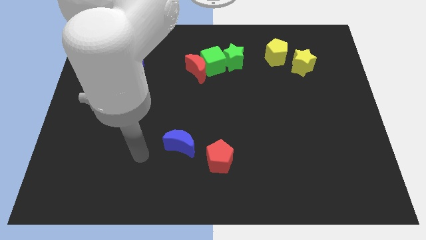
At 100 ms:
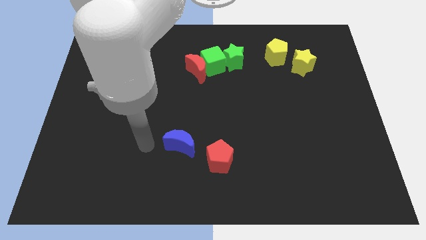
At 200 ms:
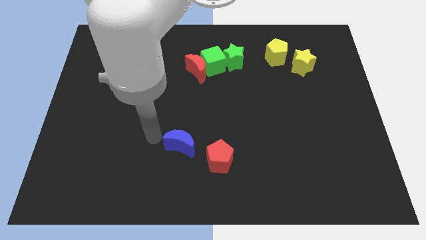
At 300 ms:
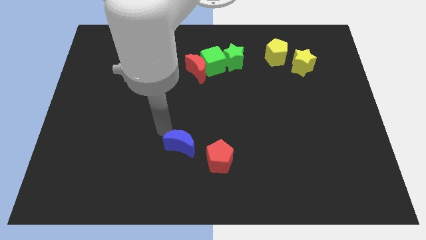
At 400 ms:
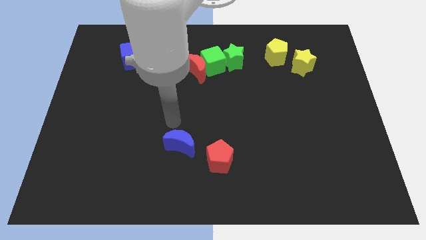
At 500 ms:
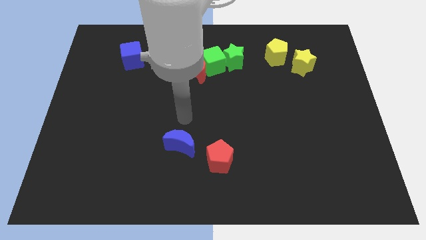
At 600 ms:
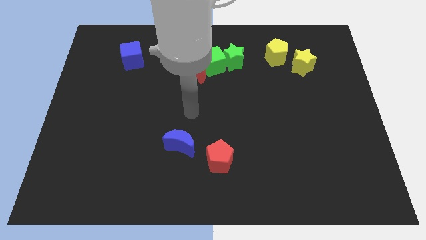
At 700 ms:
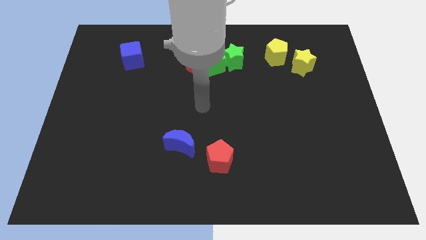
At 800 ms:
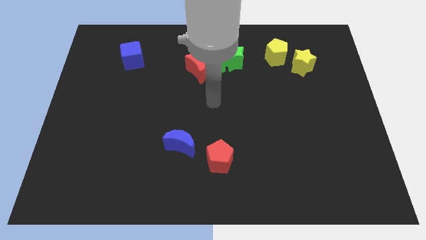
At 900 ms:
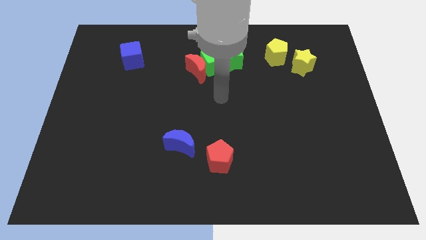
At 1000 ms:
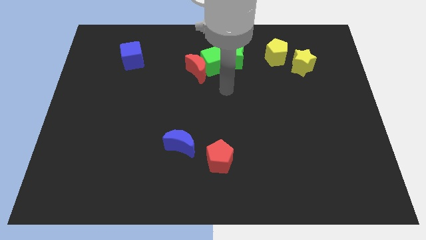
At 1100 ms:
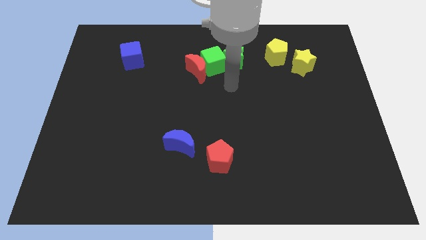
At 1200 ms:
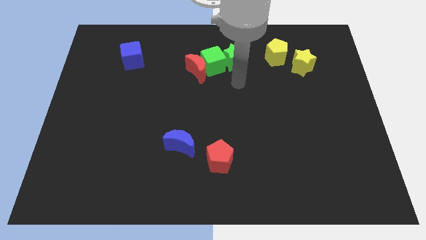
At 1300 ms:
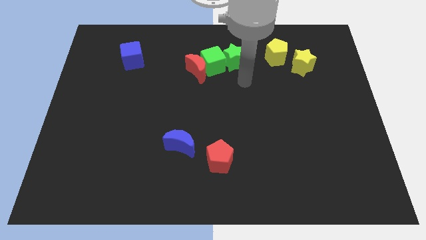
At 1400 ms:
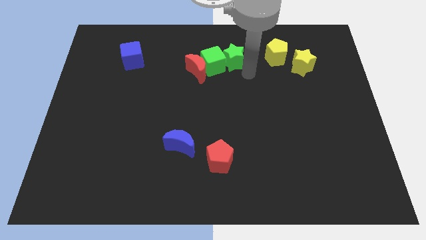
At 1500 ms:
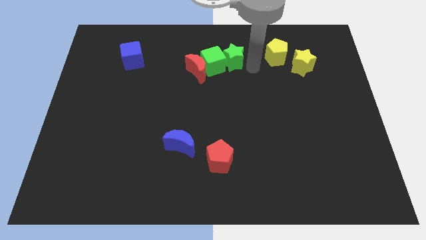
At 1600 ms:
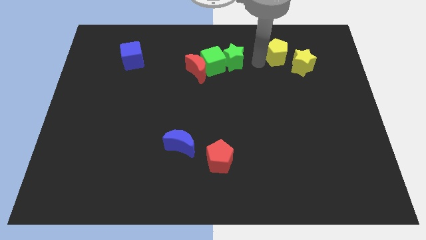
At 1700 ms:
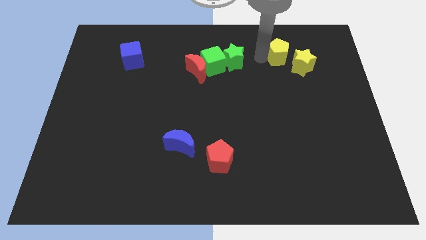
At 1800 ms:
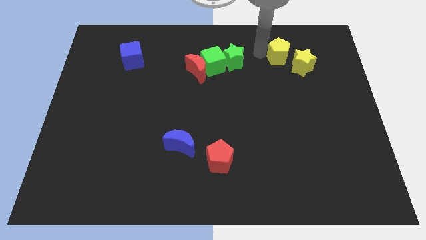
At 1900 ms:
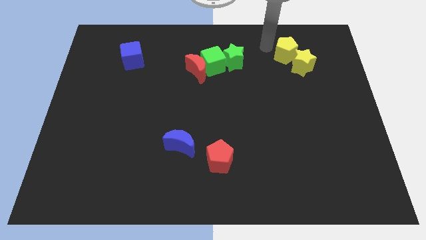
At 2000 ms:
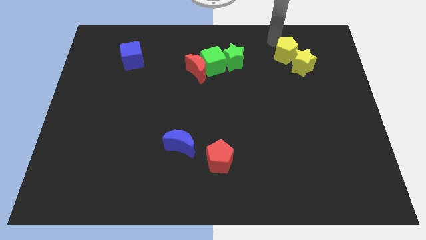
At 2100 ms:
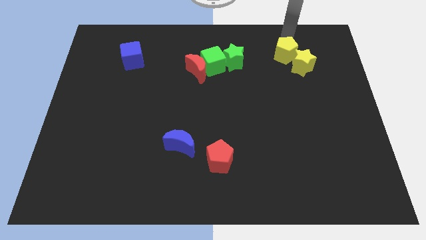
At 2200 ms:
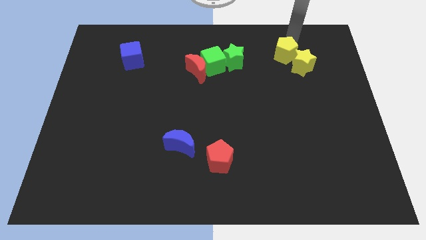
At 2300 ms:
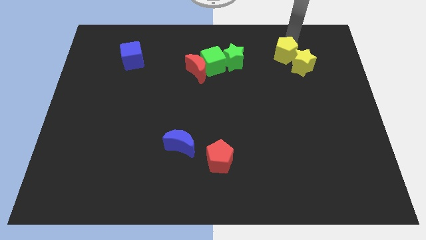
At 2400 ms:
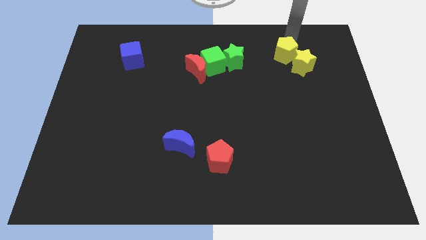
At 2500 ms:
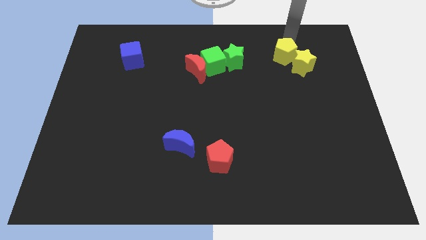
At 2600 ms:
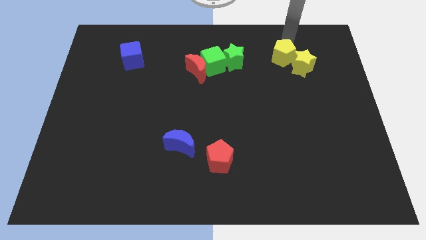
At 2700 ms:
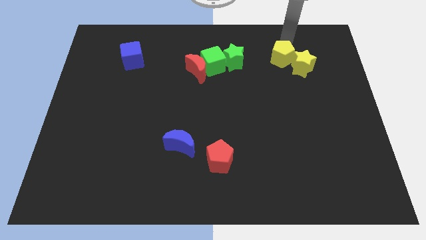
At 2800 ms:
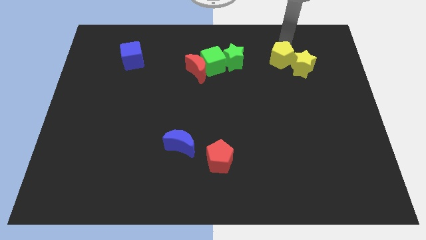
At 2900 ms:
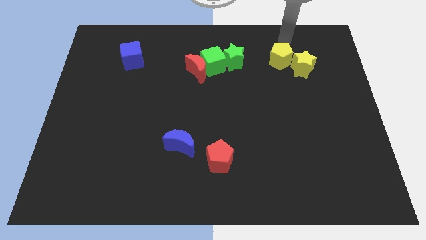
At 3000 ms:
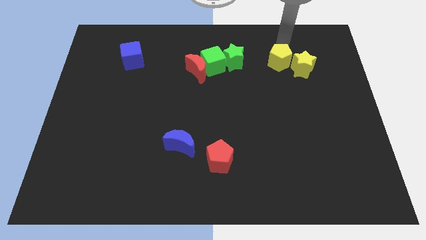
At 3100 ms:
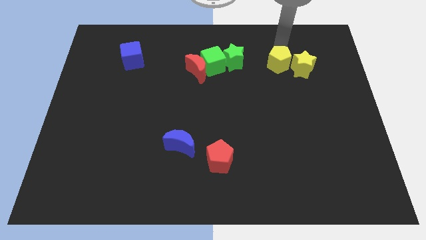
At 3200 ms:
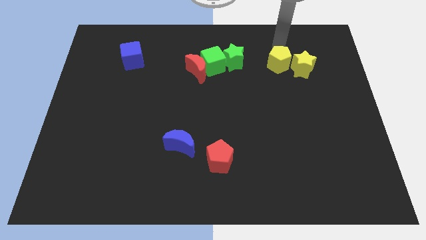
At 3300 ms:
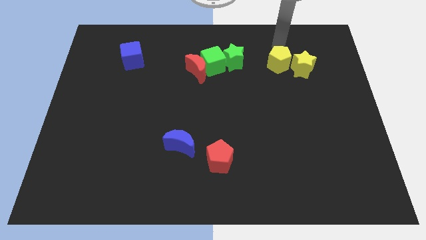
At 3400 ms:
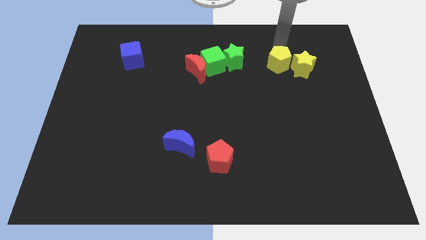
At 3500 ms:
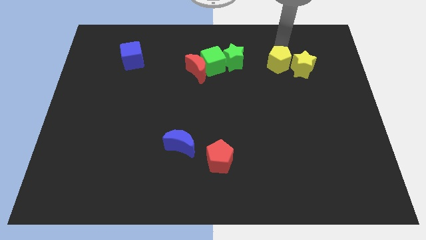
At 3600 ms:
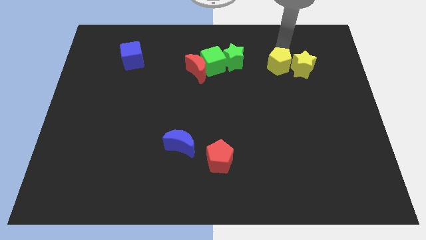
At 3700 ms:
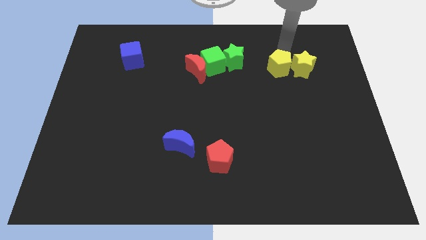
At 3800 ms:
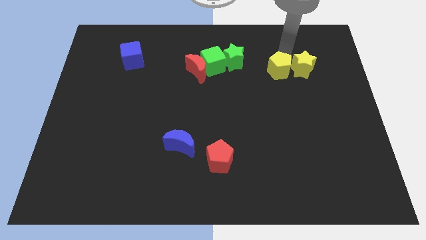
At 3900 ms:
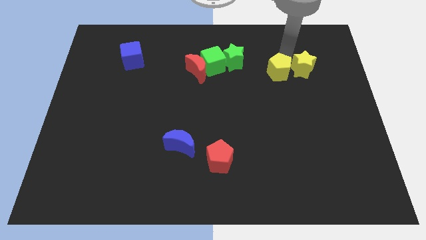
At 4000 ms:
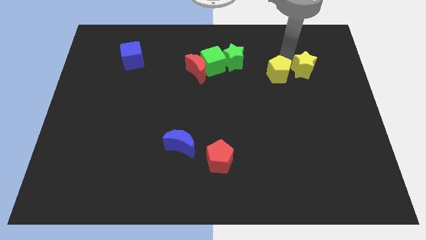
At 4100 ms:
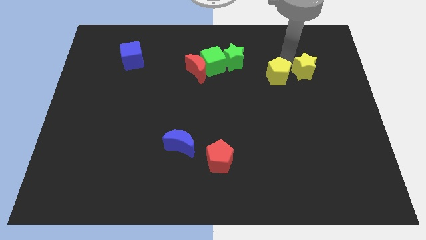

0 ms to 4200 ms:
slide the yellow pentagon downwards slightly

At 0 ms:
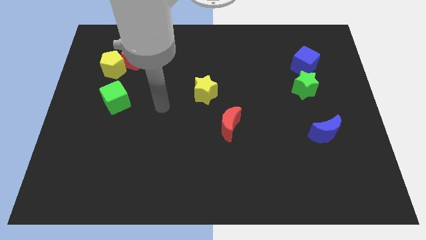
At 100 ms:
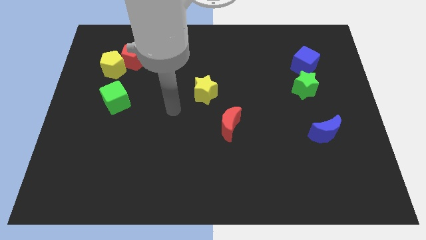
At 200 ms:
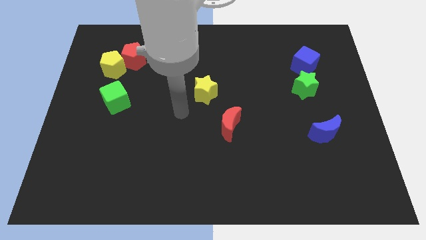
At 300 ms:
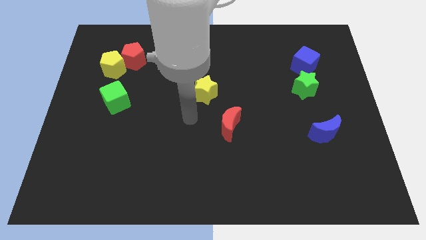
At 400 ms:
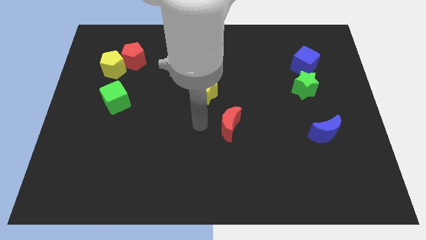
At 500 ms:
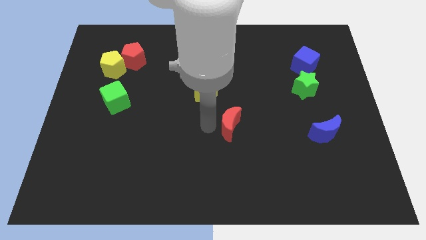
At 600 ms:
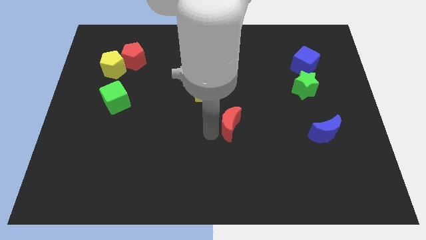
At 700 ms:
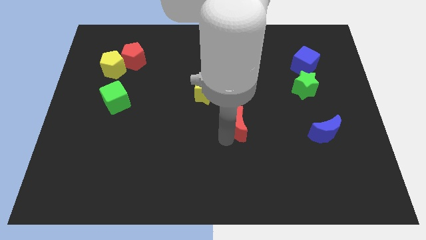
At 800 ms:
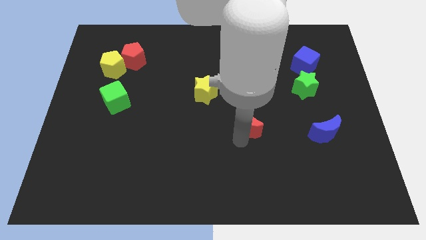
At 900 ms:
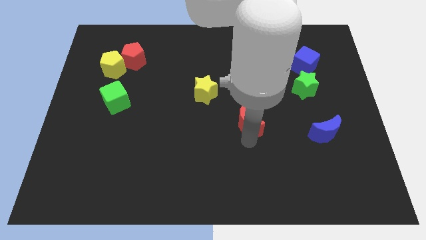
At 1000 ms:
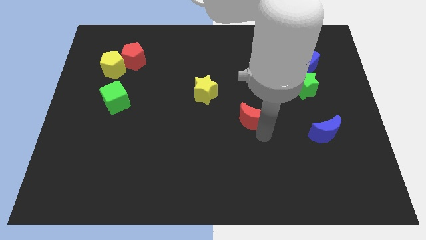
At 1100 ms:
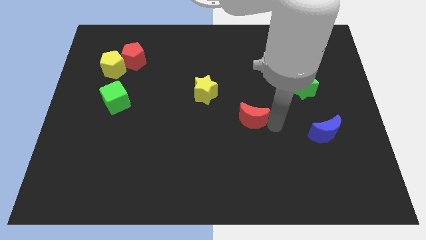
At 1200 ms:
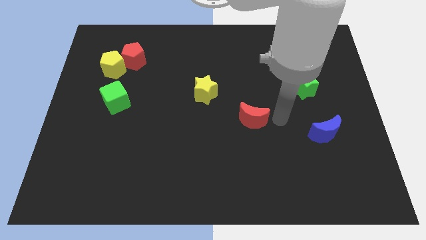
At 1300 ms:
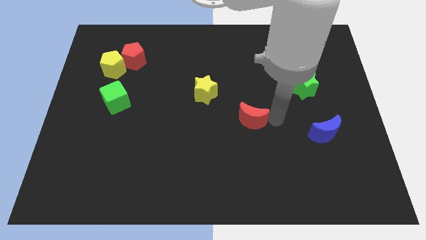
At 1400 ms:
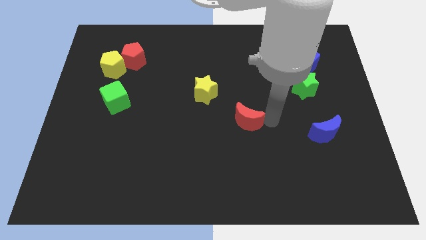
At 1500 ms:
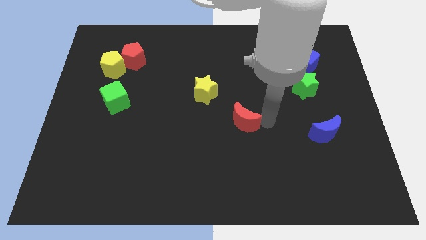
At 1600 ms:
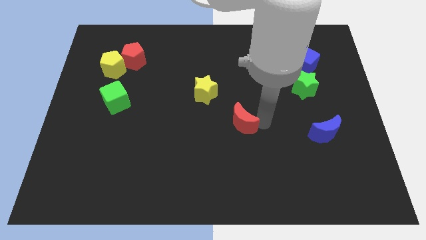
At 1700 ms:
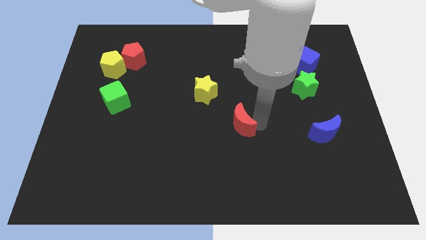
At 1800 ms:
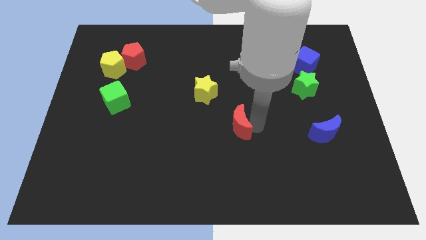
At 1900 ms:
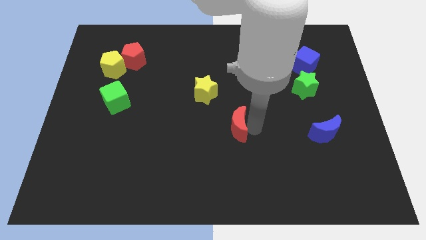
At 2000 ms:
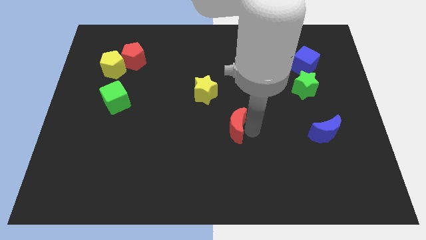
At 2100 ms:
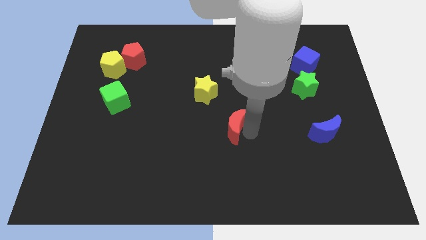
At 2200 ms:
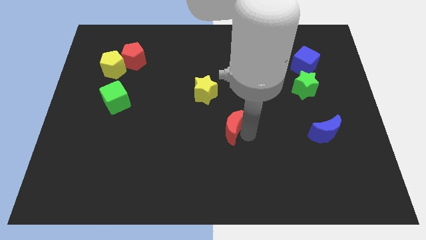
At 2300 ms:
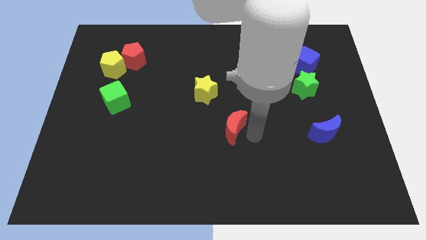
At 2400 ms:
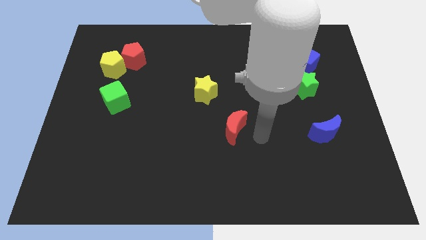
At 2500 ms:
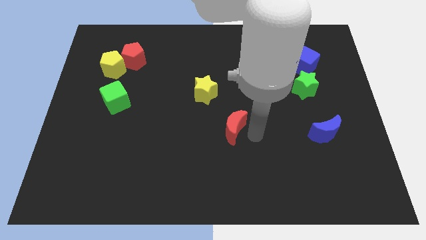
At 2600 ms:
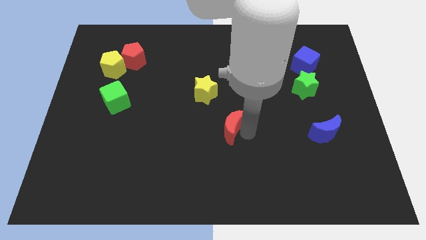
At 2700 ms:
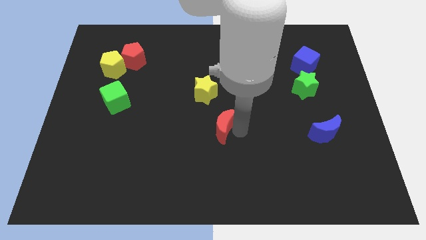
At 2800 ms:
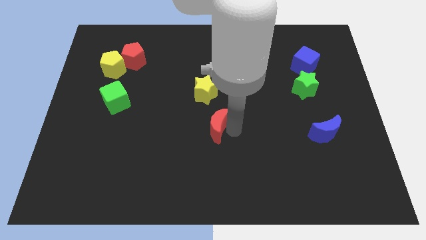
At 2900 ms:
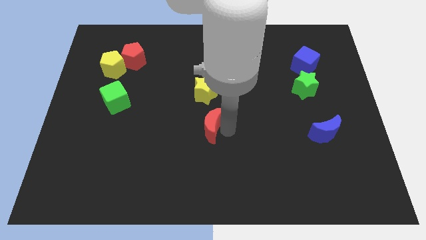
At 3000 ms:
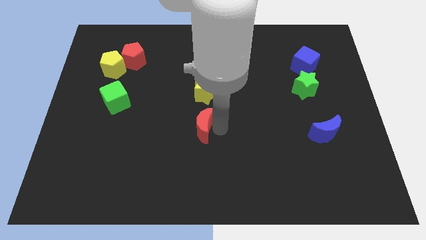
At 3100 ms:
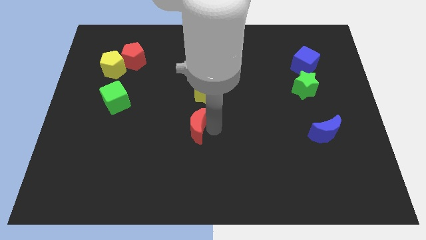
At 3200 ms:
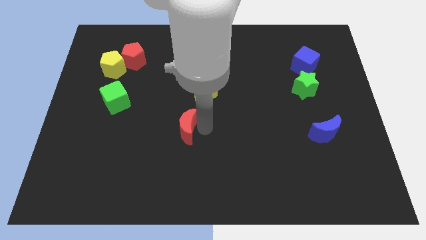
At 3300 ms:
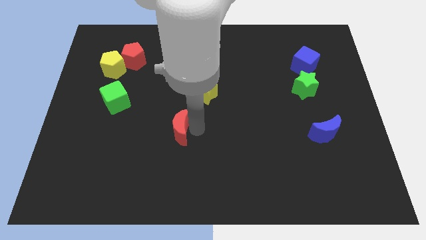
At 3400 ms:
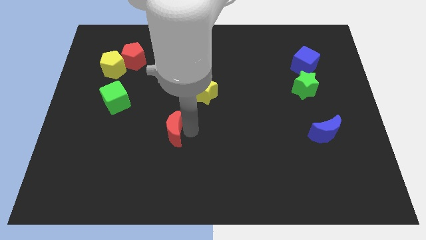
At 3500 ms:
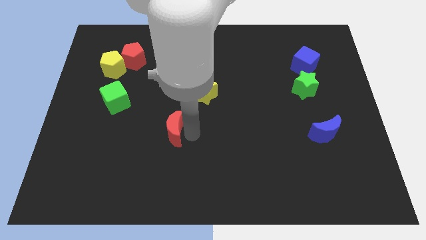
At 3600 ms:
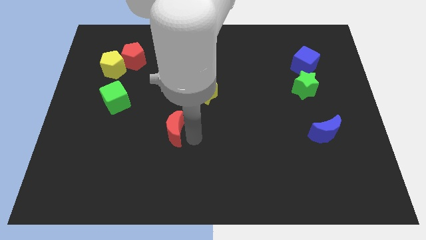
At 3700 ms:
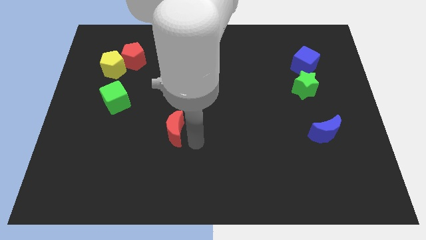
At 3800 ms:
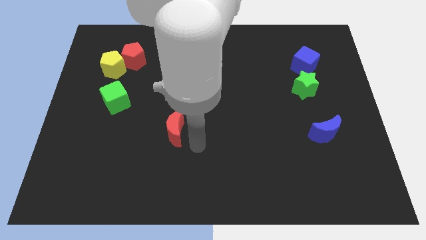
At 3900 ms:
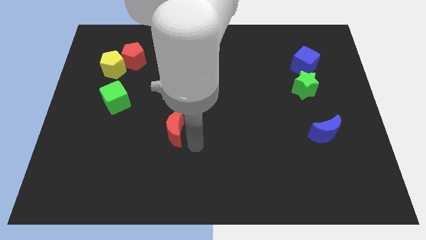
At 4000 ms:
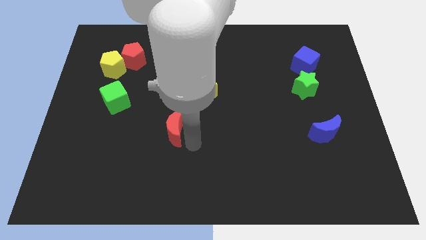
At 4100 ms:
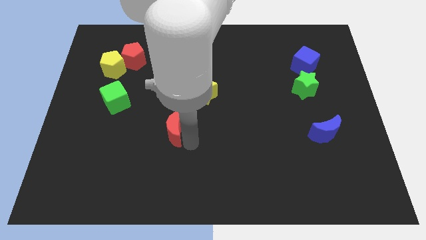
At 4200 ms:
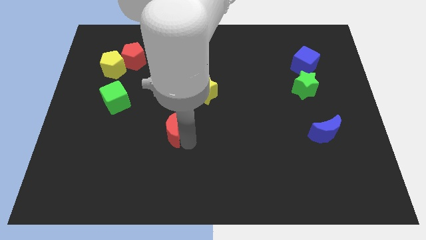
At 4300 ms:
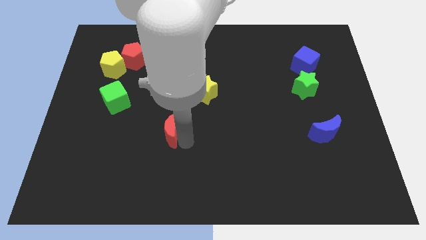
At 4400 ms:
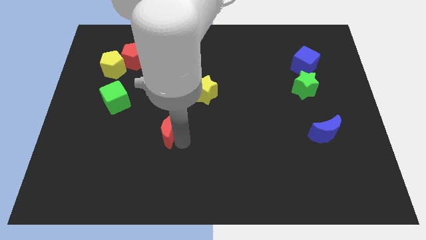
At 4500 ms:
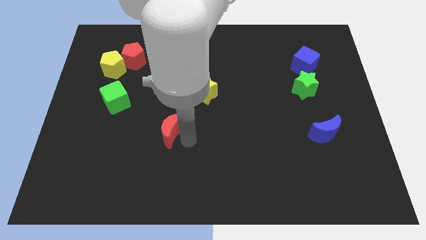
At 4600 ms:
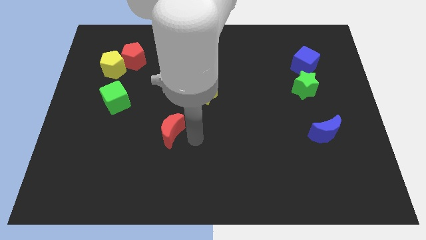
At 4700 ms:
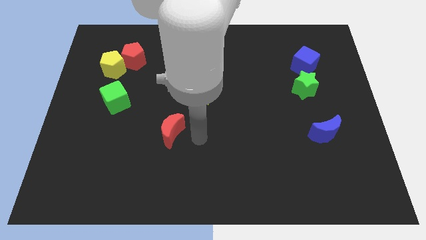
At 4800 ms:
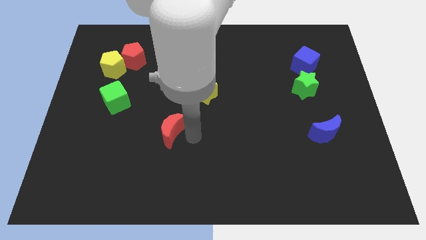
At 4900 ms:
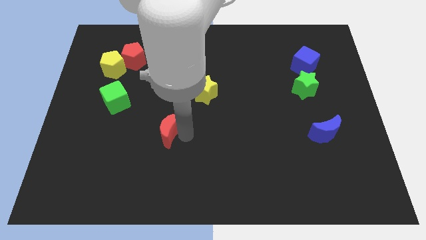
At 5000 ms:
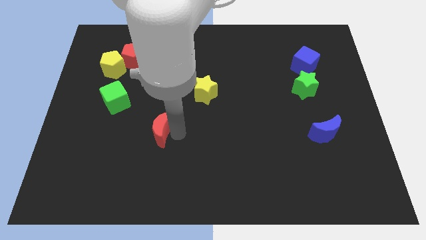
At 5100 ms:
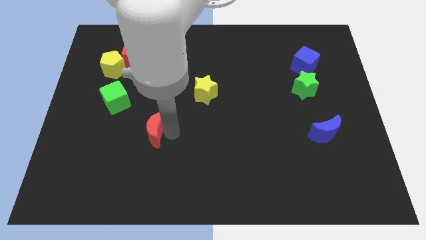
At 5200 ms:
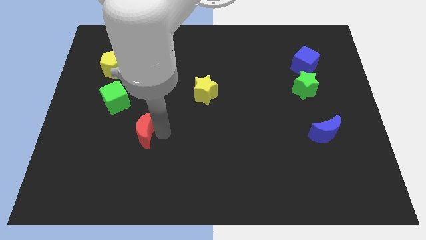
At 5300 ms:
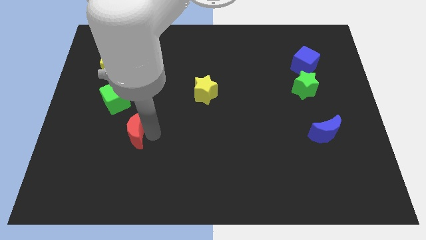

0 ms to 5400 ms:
push the red moon to the left
